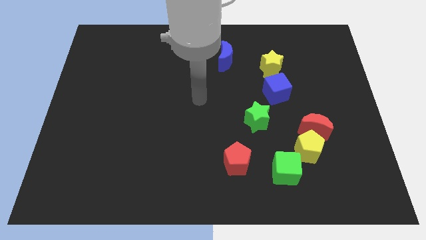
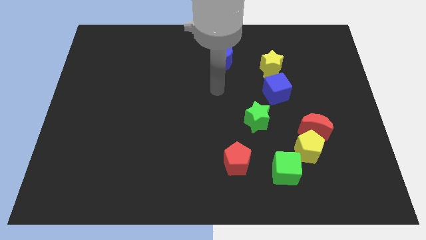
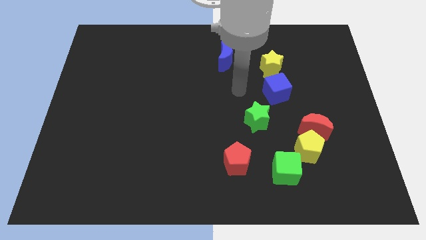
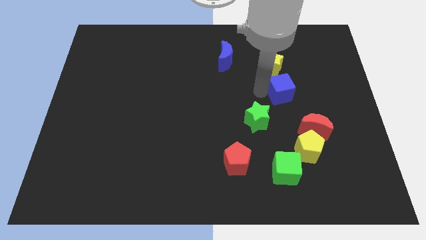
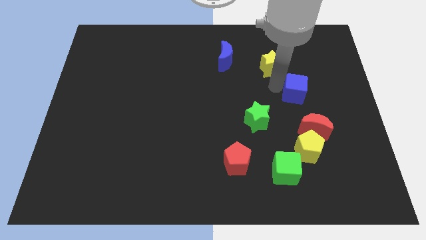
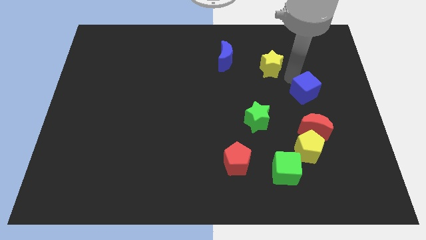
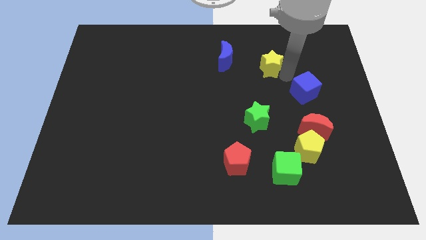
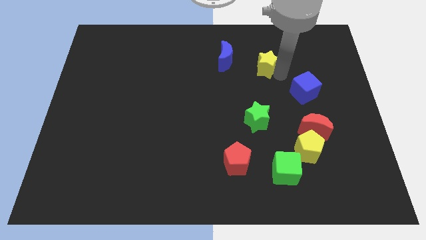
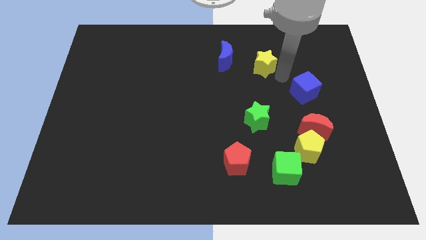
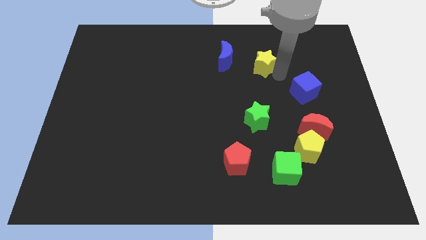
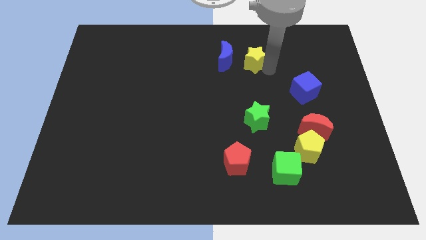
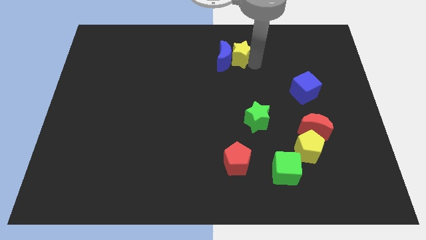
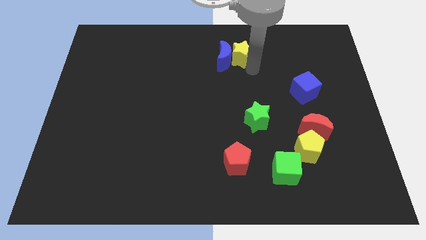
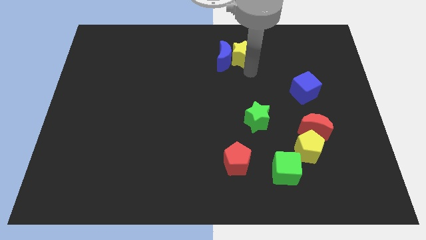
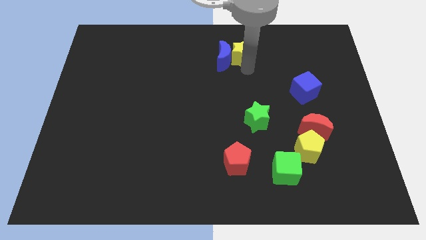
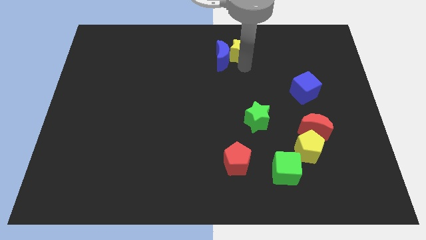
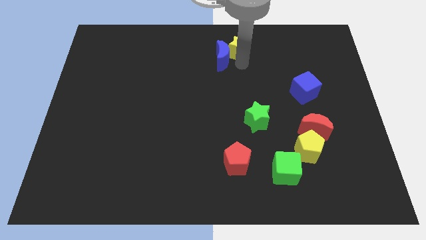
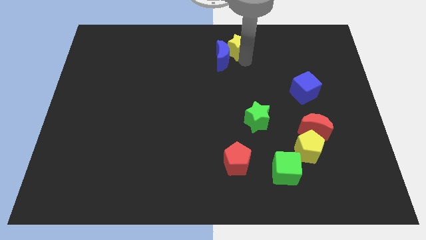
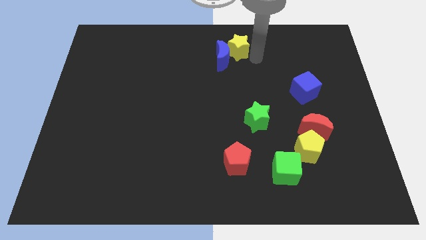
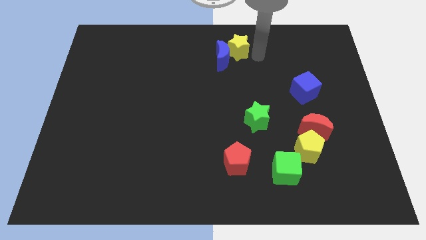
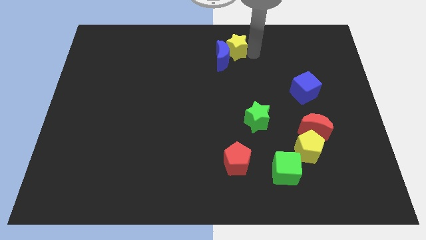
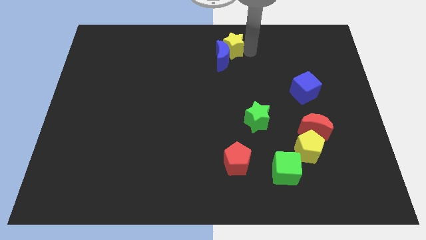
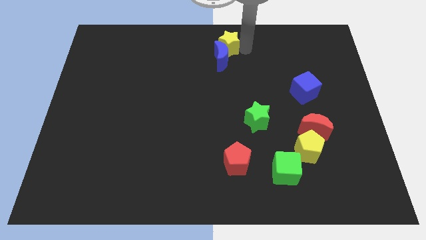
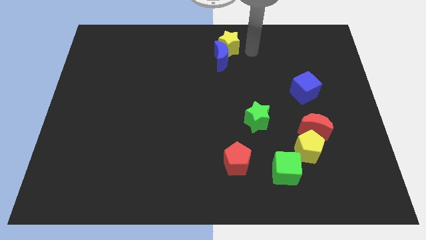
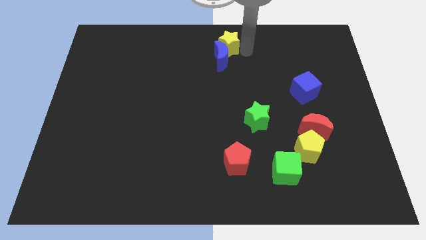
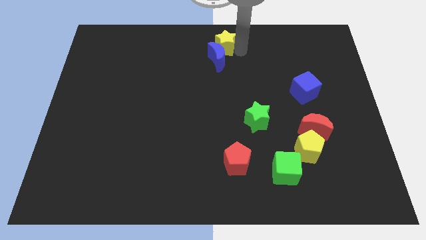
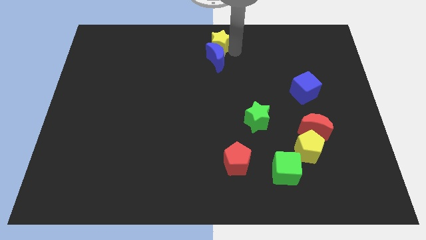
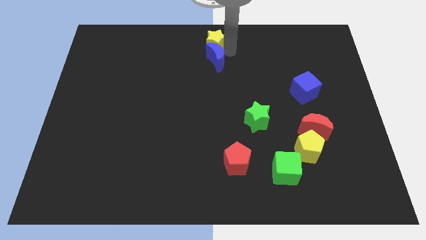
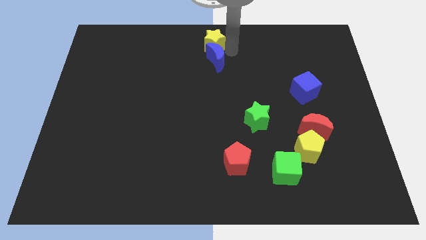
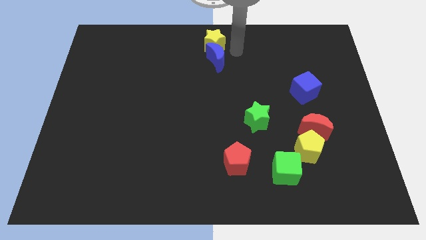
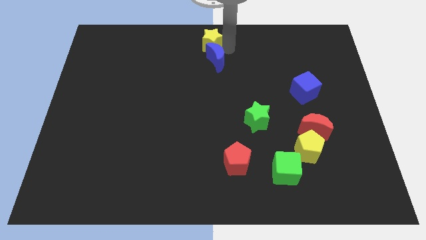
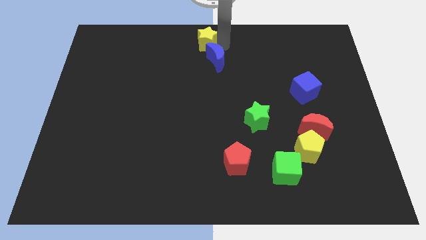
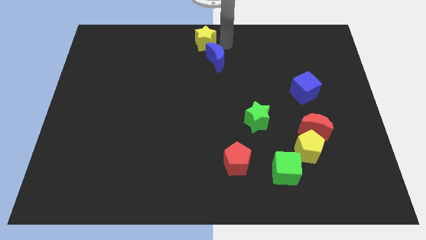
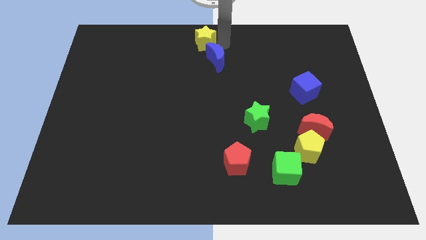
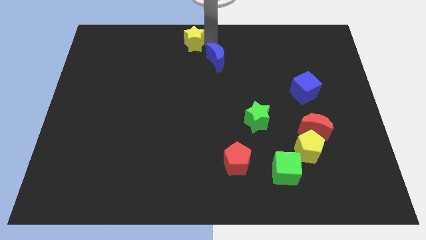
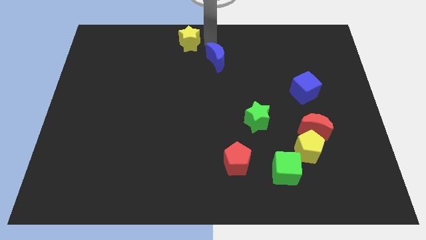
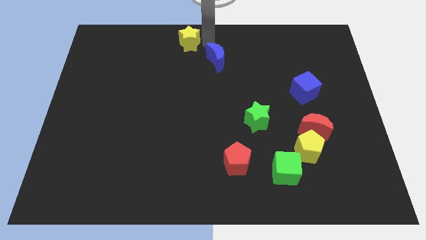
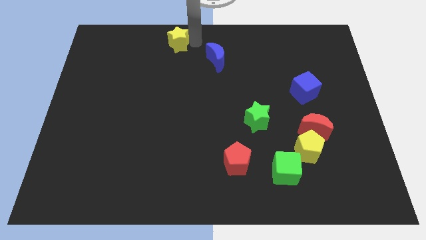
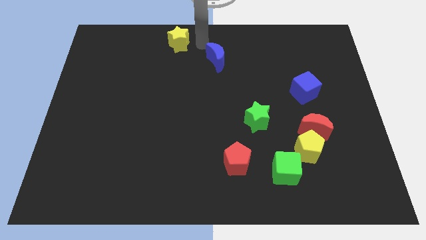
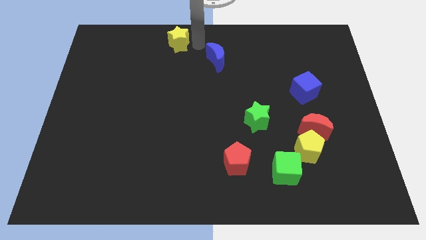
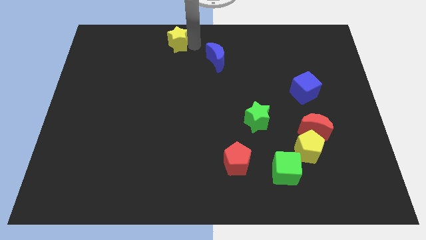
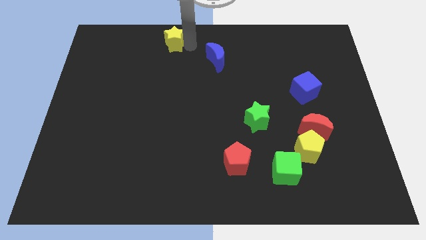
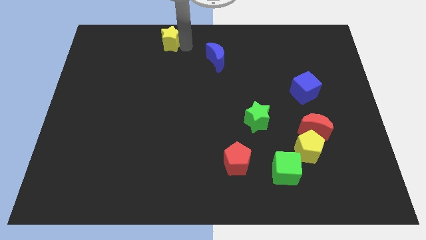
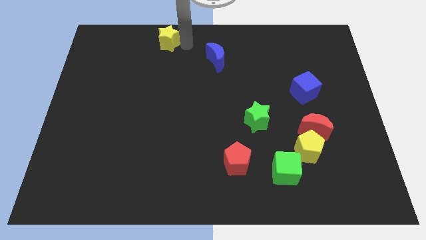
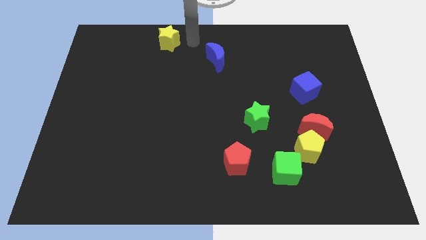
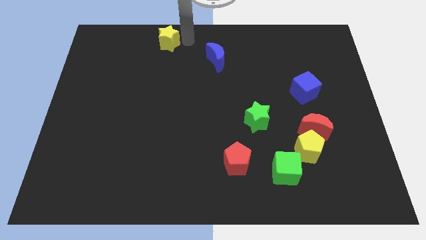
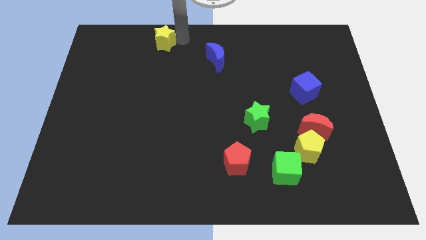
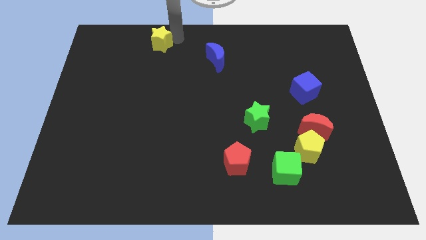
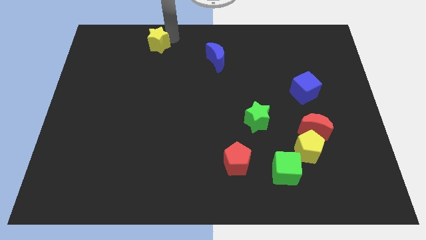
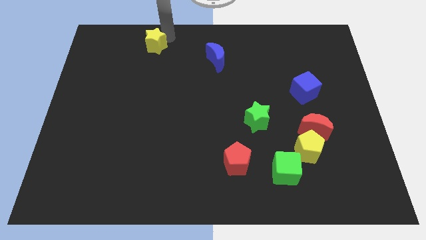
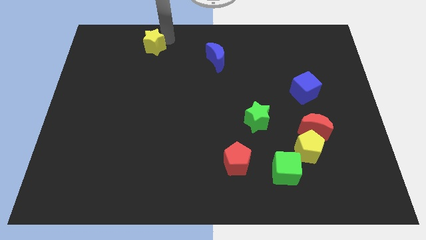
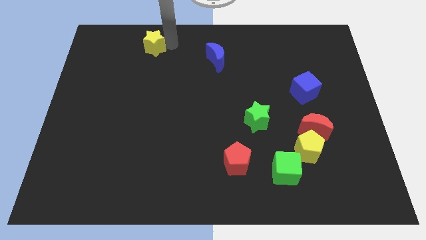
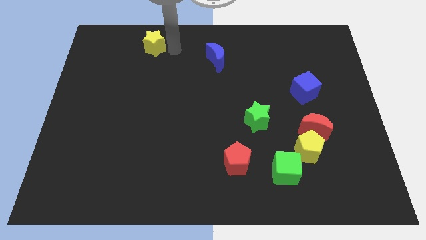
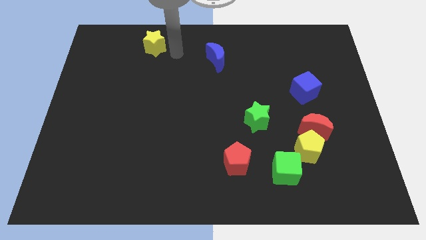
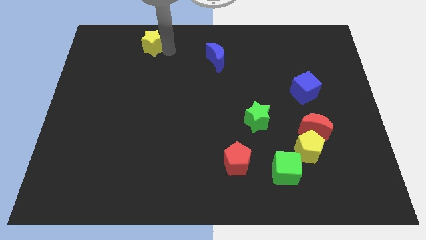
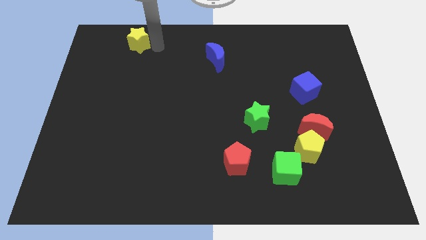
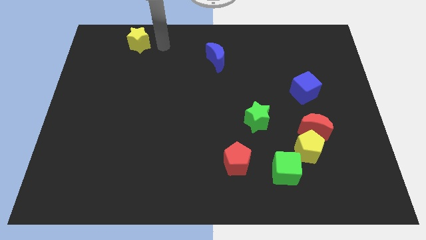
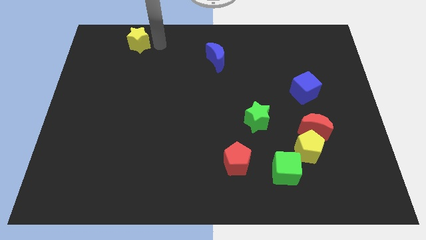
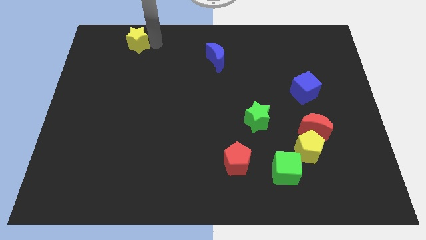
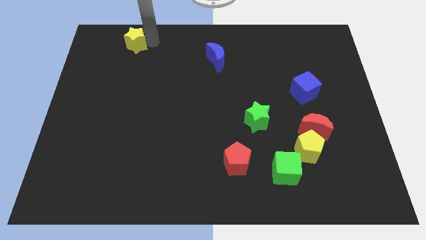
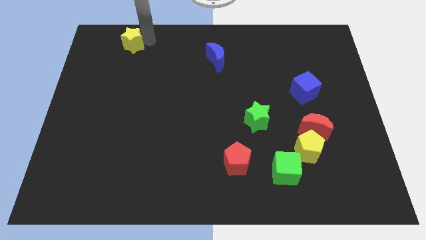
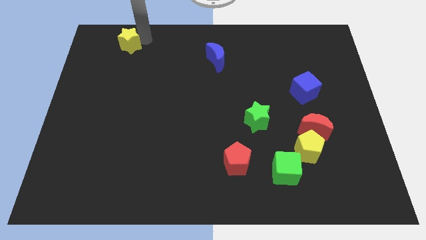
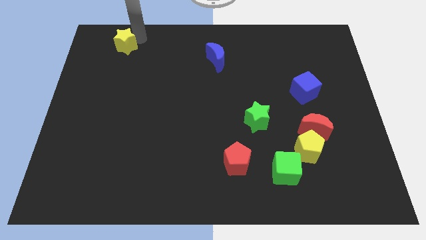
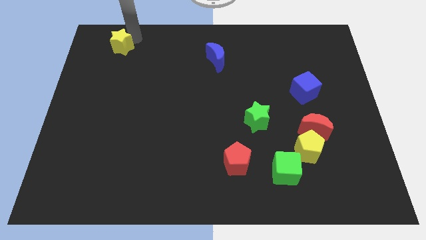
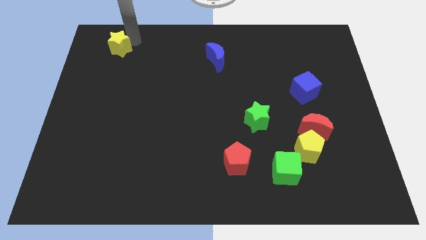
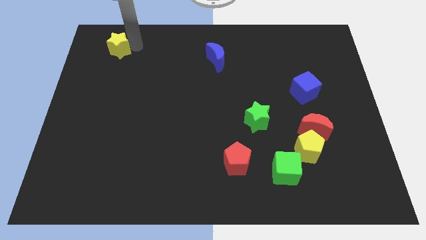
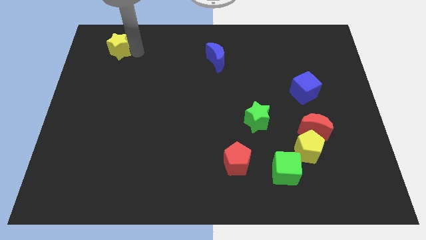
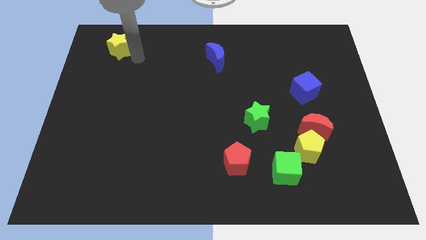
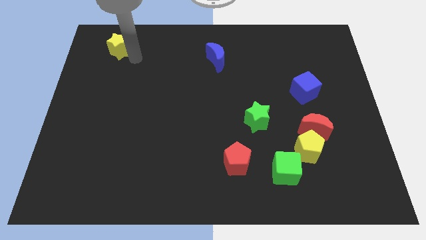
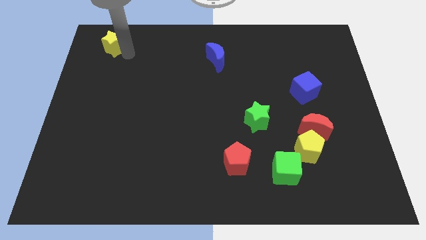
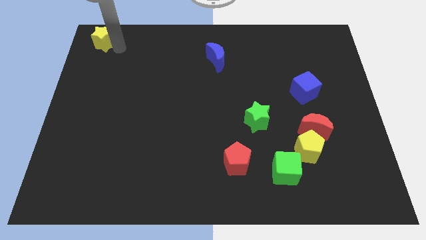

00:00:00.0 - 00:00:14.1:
put the yellow star to the upper left corner
